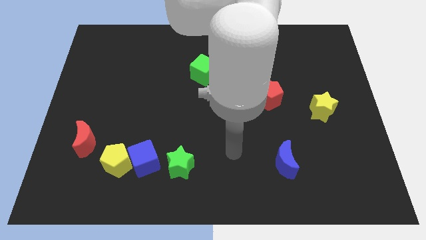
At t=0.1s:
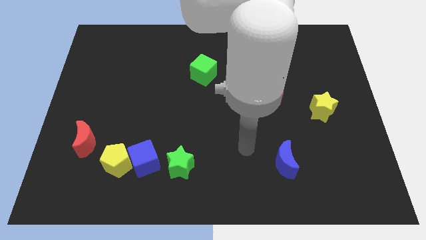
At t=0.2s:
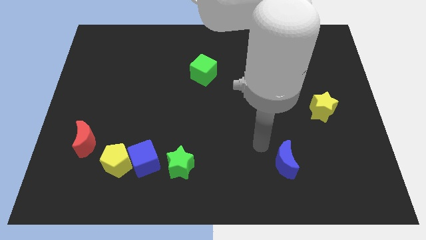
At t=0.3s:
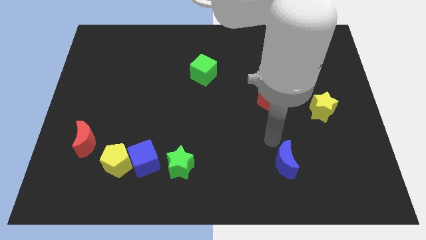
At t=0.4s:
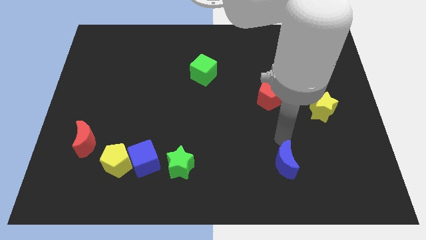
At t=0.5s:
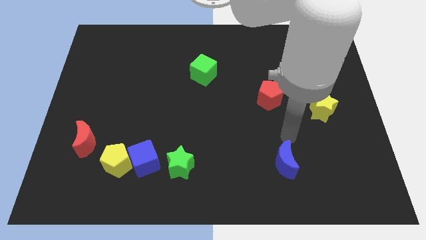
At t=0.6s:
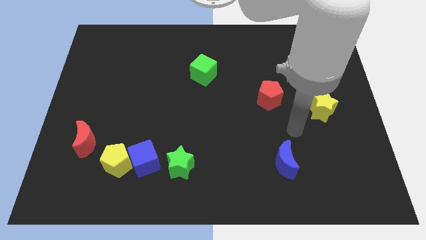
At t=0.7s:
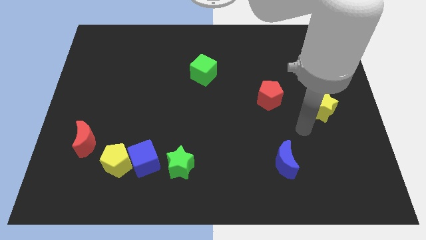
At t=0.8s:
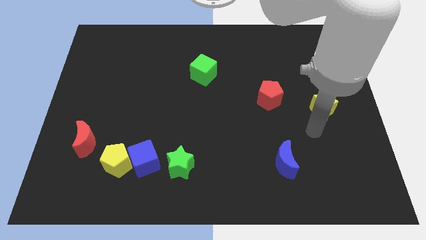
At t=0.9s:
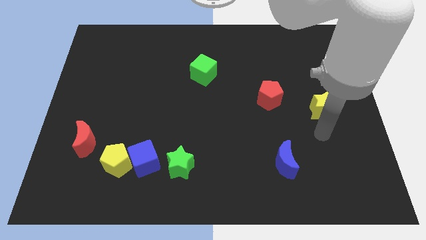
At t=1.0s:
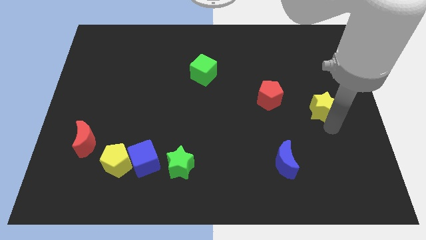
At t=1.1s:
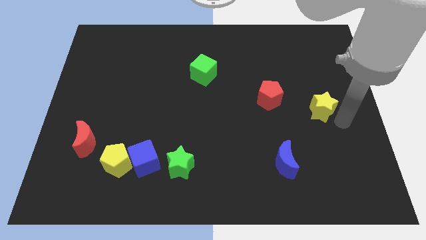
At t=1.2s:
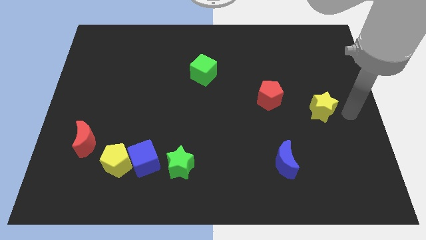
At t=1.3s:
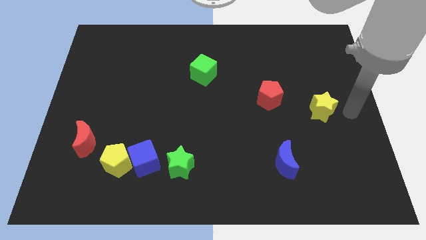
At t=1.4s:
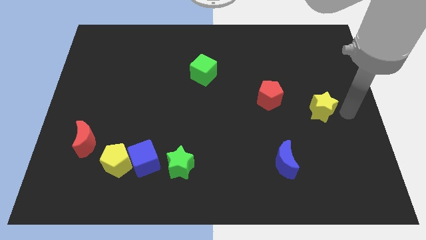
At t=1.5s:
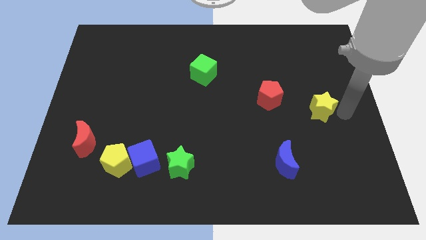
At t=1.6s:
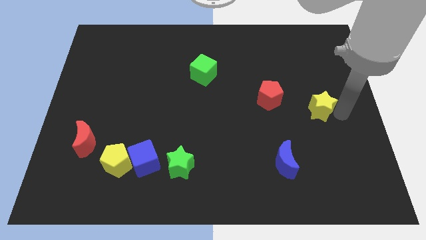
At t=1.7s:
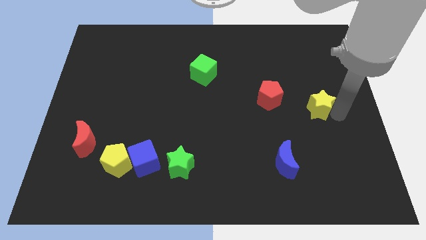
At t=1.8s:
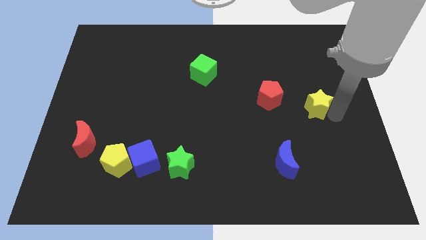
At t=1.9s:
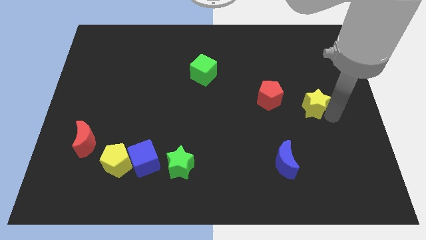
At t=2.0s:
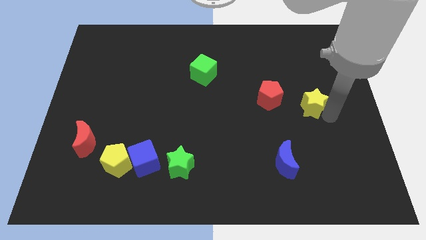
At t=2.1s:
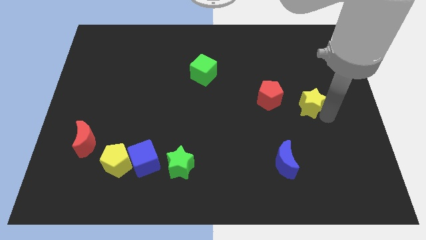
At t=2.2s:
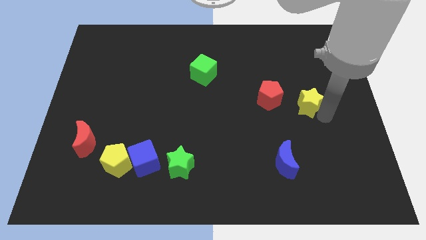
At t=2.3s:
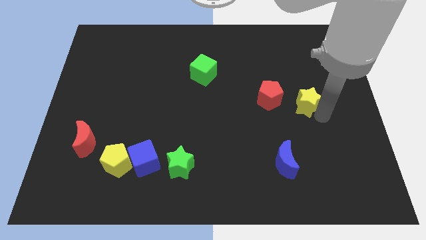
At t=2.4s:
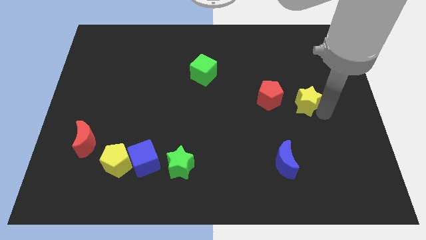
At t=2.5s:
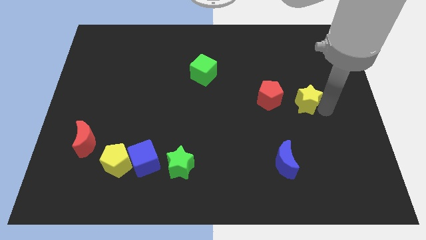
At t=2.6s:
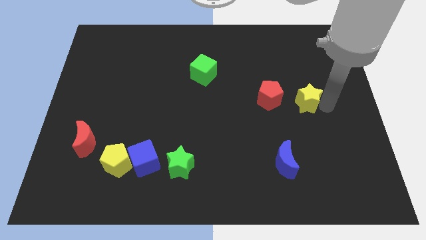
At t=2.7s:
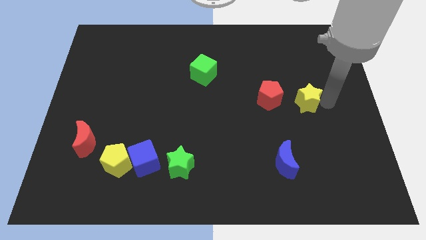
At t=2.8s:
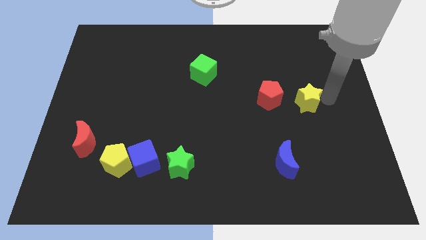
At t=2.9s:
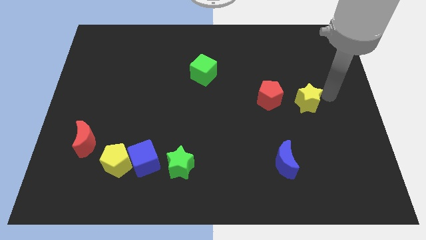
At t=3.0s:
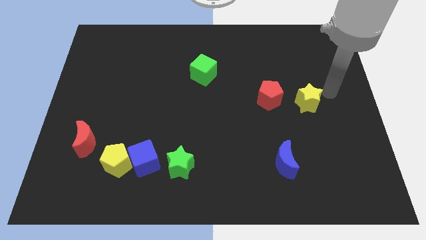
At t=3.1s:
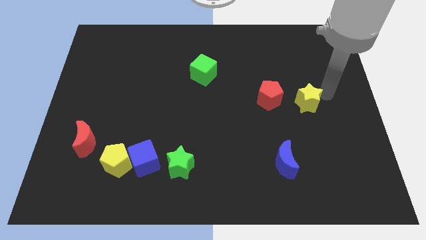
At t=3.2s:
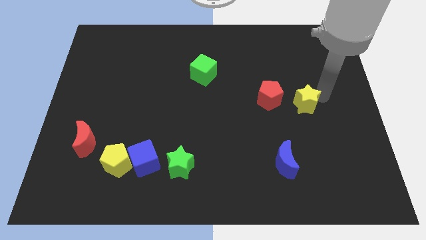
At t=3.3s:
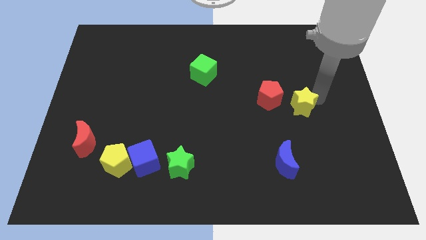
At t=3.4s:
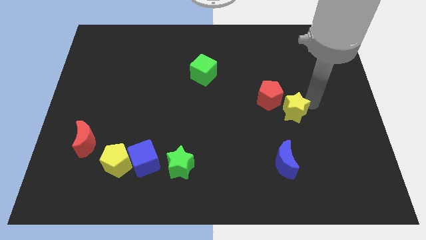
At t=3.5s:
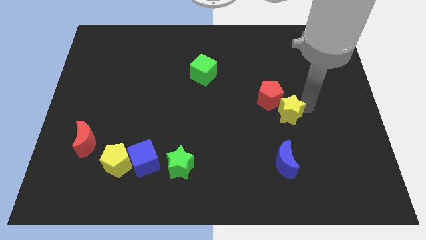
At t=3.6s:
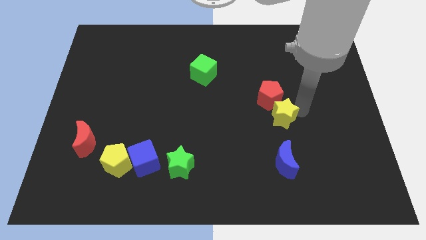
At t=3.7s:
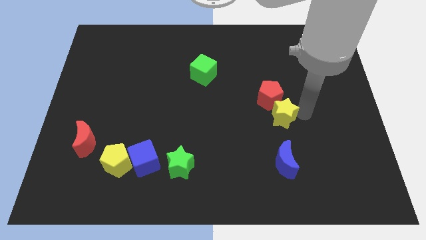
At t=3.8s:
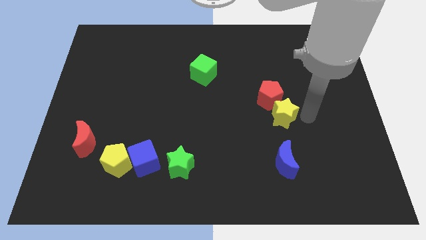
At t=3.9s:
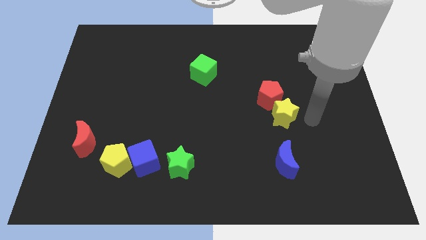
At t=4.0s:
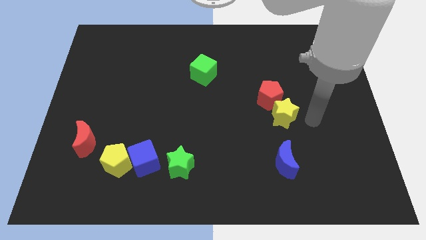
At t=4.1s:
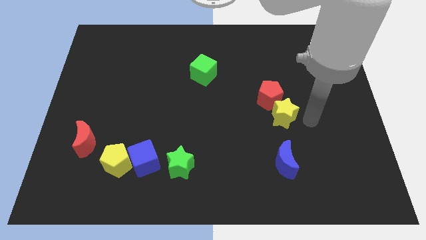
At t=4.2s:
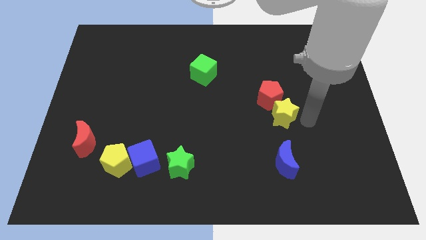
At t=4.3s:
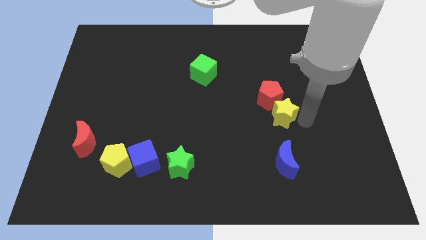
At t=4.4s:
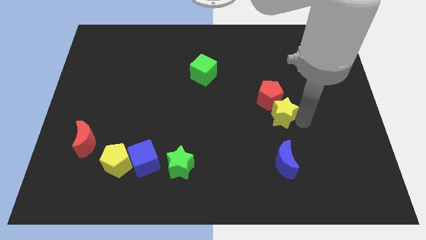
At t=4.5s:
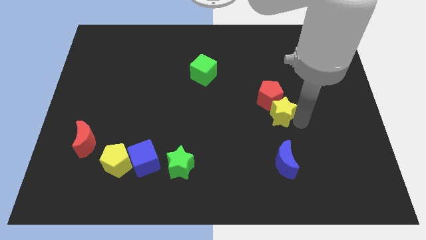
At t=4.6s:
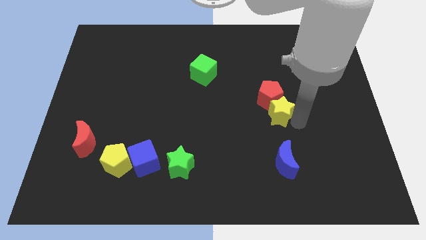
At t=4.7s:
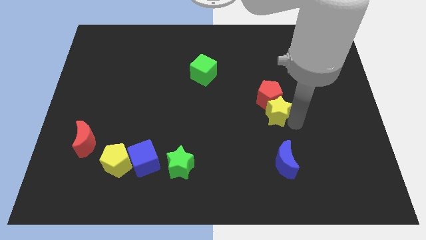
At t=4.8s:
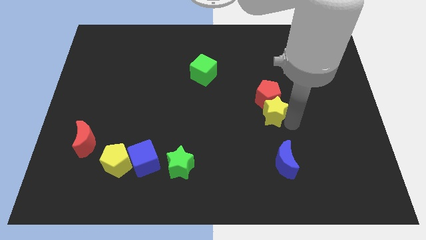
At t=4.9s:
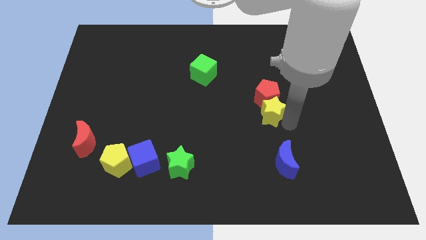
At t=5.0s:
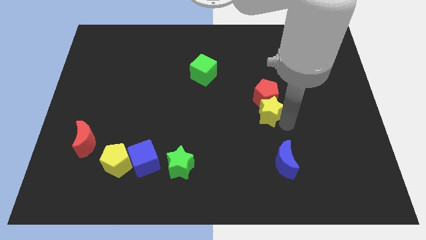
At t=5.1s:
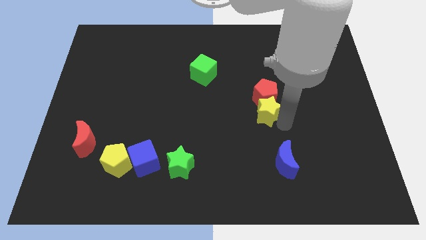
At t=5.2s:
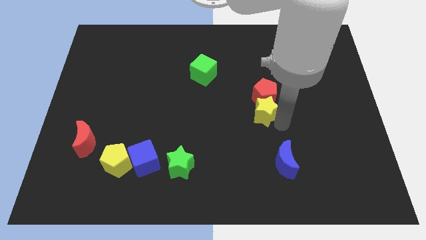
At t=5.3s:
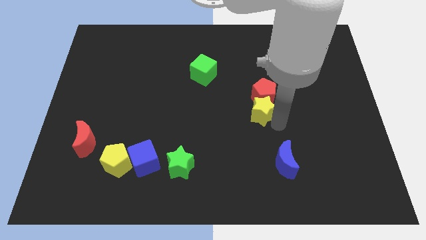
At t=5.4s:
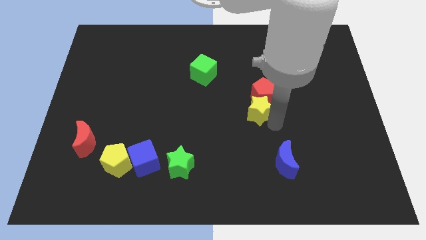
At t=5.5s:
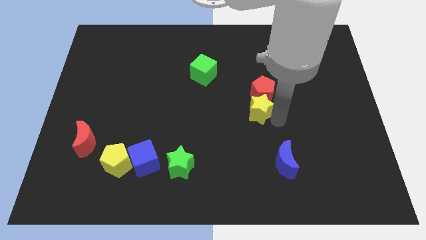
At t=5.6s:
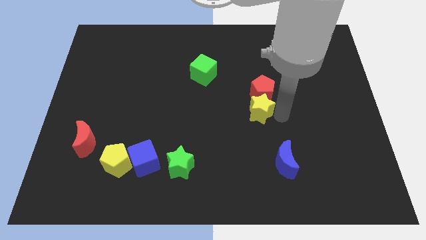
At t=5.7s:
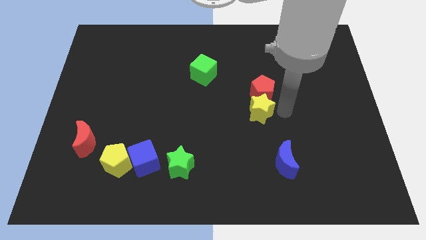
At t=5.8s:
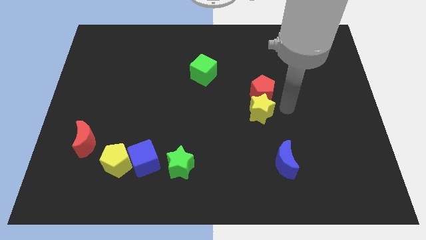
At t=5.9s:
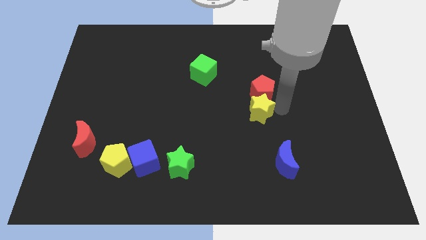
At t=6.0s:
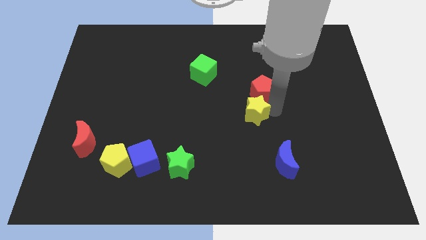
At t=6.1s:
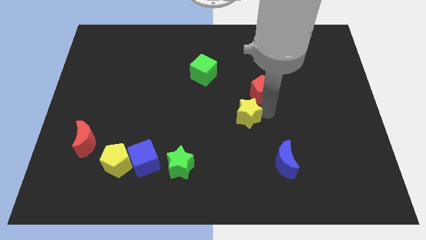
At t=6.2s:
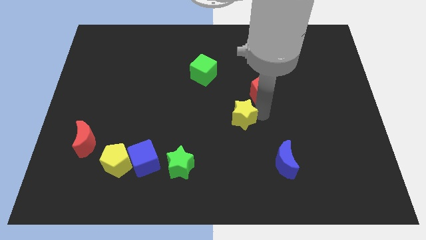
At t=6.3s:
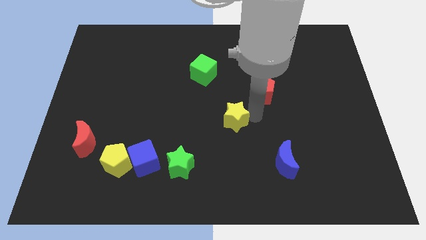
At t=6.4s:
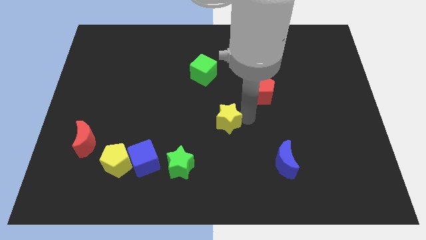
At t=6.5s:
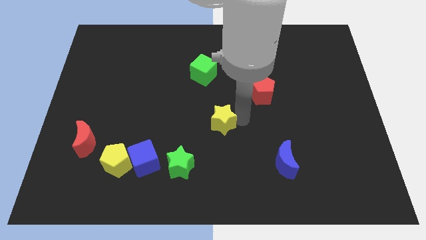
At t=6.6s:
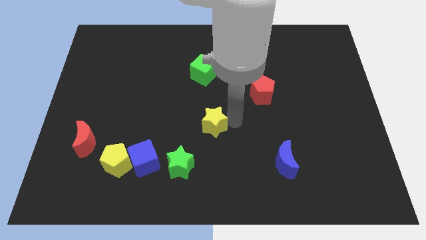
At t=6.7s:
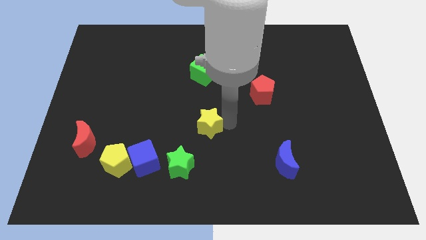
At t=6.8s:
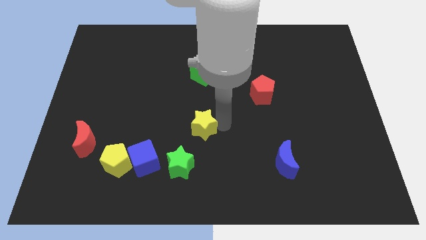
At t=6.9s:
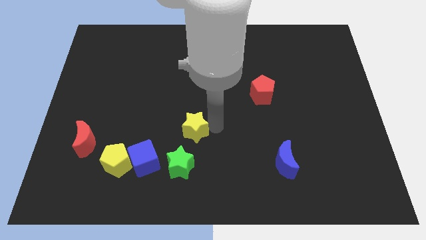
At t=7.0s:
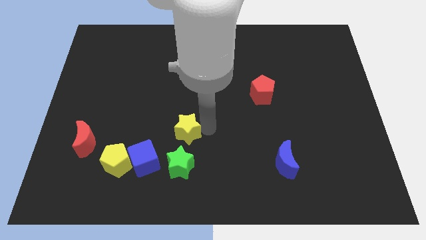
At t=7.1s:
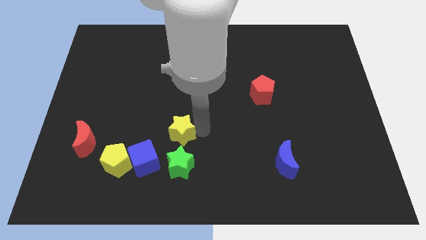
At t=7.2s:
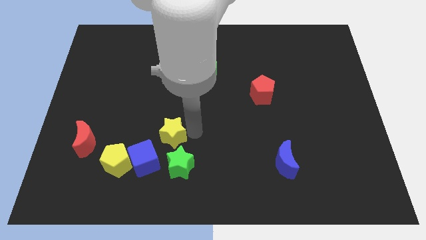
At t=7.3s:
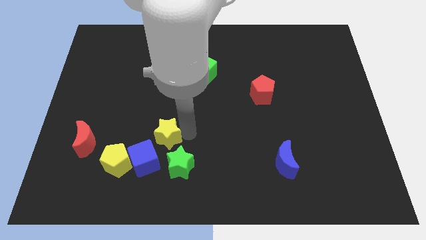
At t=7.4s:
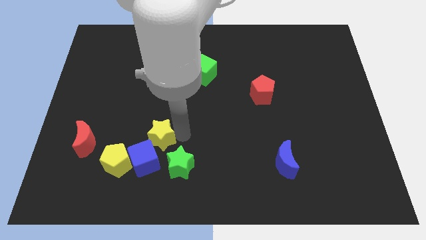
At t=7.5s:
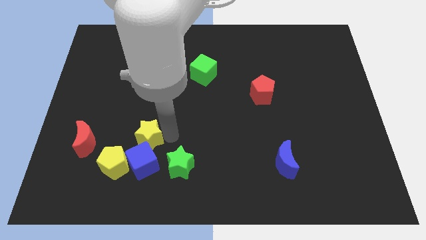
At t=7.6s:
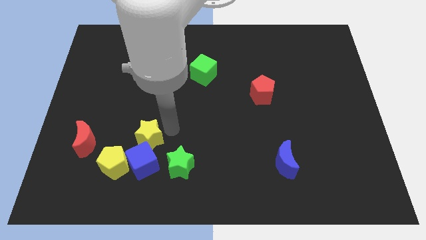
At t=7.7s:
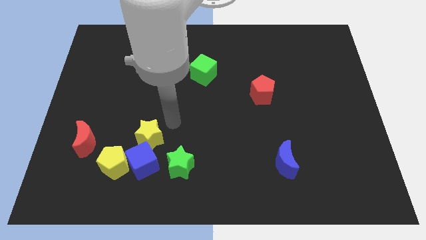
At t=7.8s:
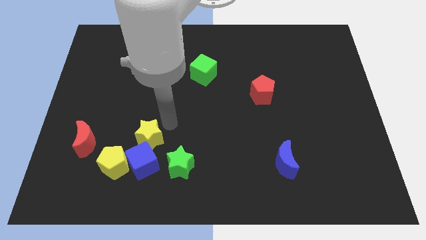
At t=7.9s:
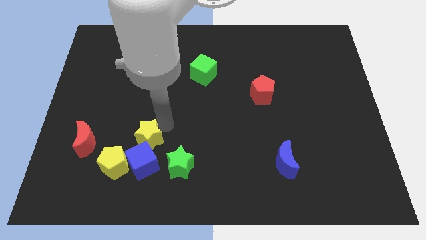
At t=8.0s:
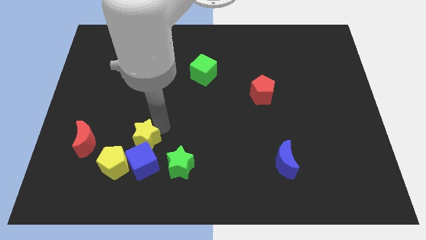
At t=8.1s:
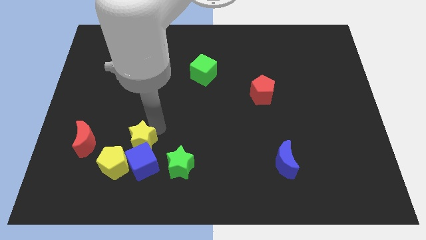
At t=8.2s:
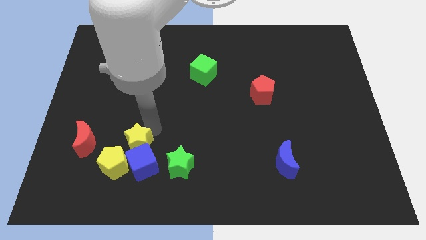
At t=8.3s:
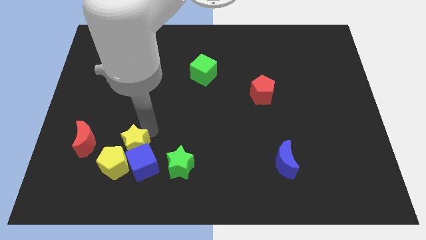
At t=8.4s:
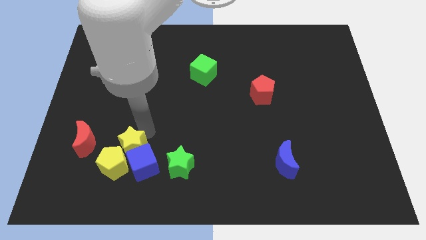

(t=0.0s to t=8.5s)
slide the yellow star next to the yellow pentagon
